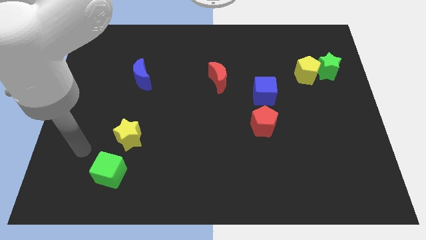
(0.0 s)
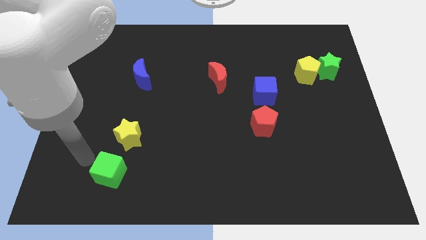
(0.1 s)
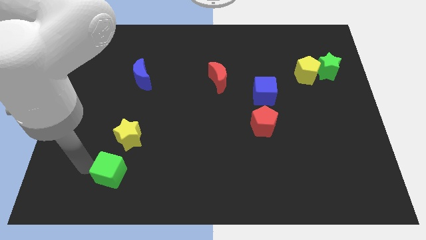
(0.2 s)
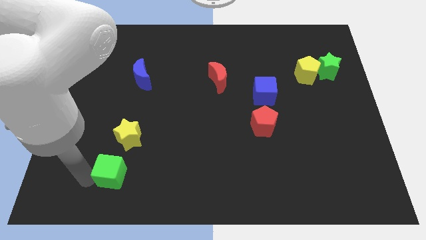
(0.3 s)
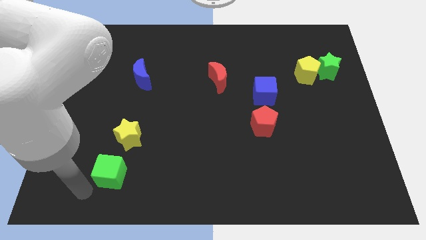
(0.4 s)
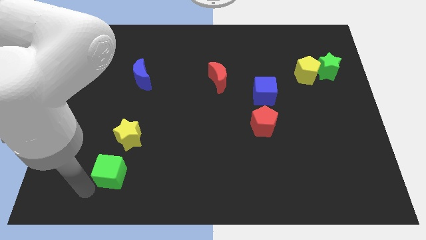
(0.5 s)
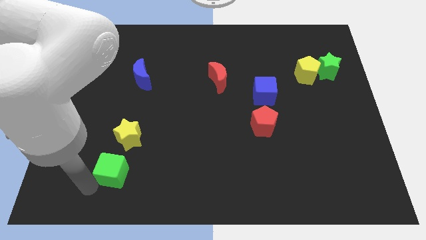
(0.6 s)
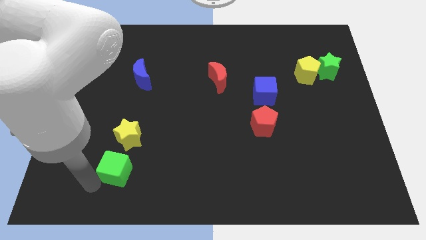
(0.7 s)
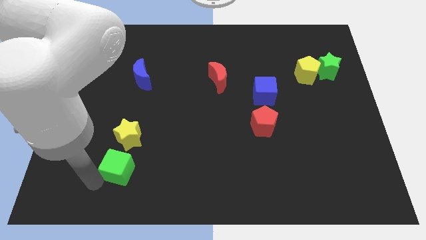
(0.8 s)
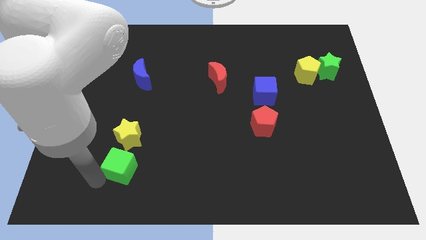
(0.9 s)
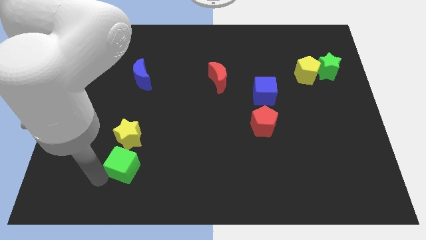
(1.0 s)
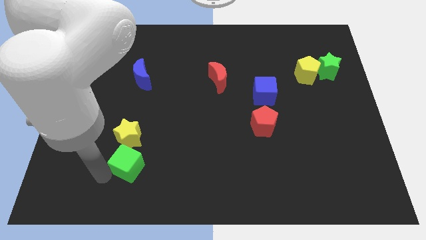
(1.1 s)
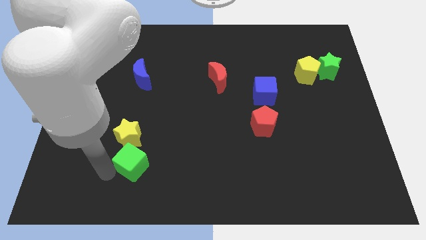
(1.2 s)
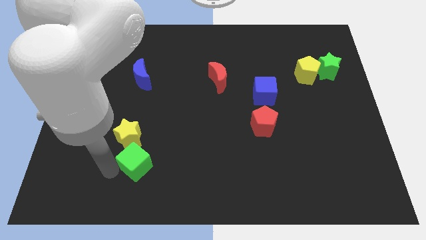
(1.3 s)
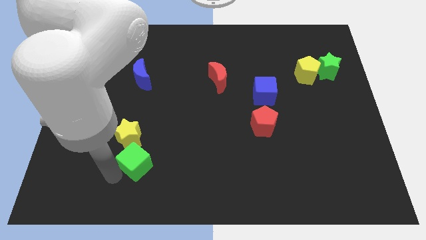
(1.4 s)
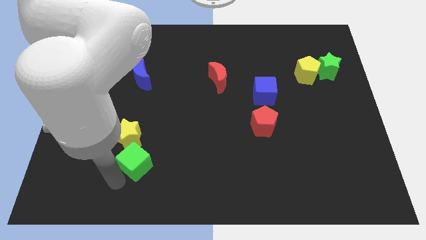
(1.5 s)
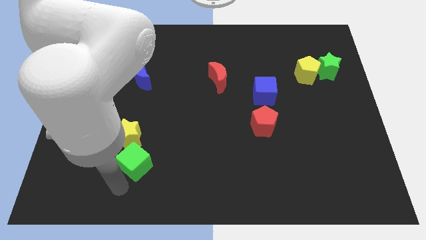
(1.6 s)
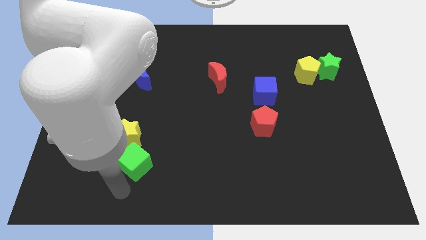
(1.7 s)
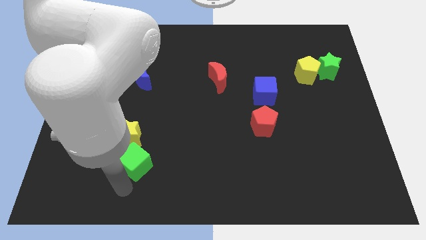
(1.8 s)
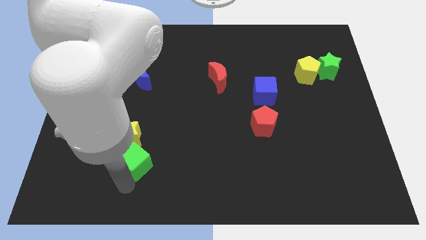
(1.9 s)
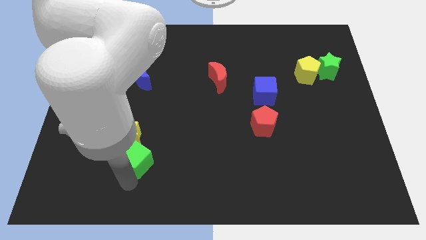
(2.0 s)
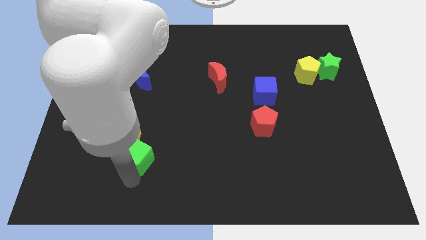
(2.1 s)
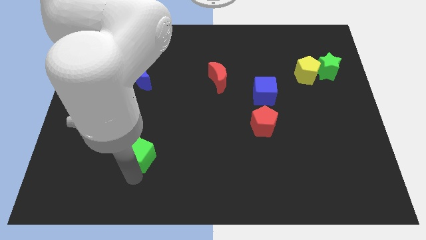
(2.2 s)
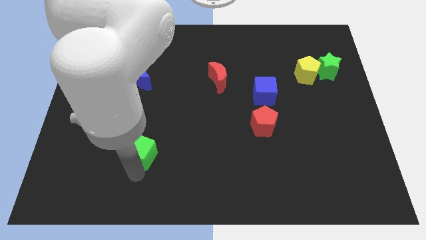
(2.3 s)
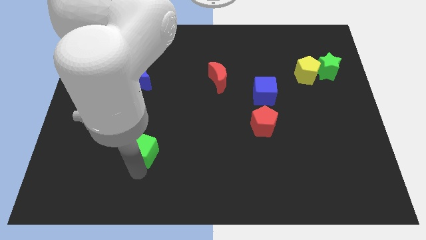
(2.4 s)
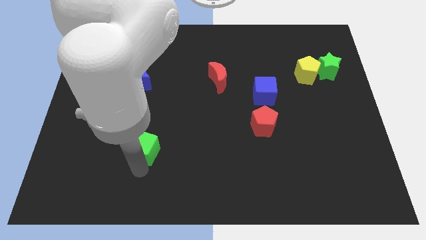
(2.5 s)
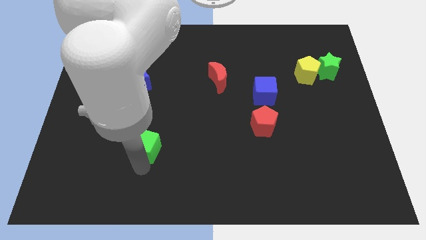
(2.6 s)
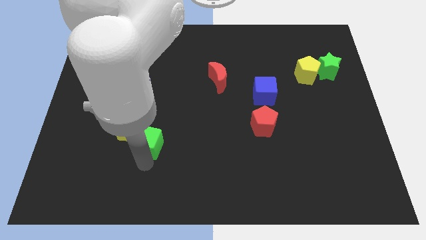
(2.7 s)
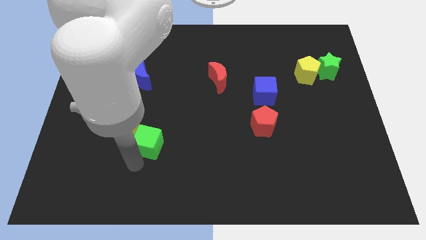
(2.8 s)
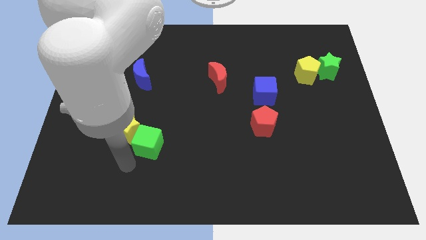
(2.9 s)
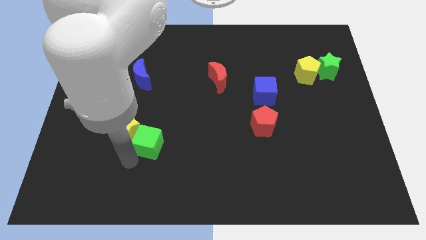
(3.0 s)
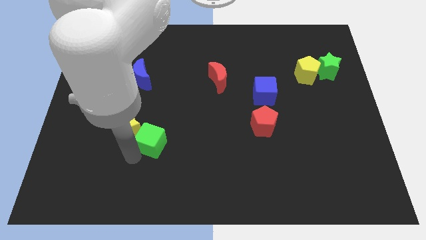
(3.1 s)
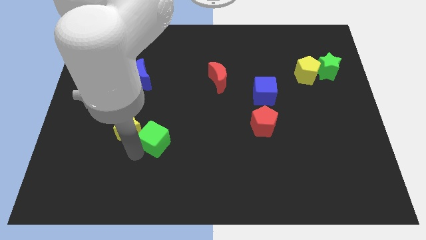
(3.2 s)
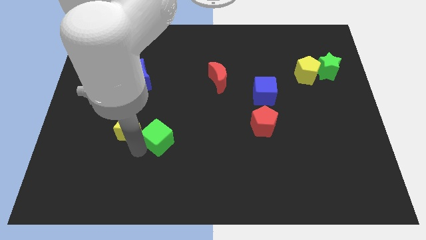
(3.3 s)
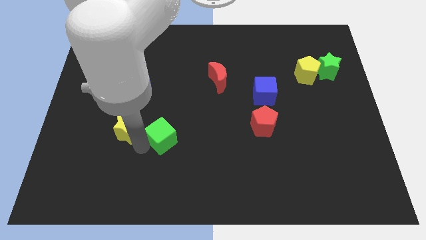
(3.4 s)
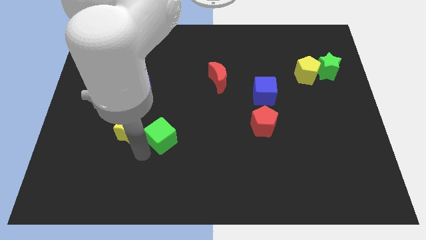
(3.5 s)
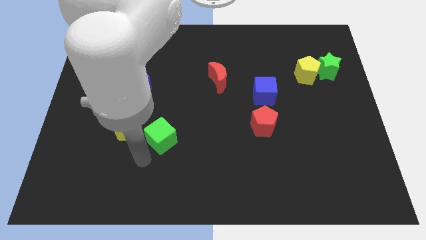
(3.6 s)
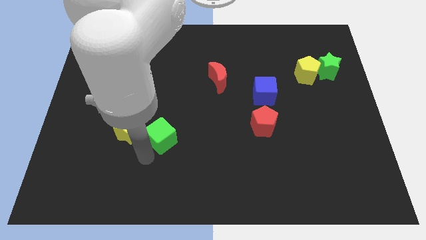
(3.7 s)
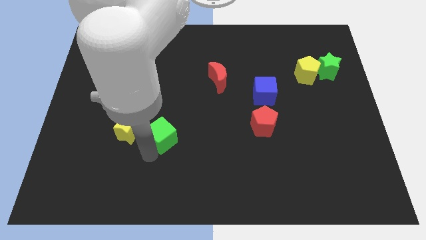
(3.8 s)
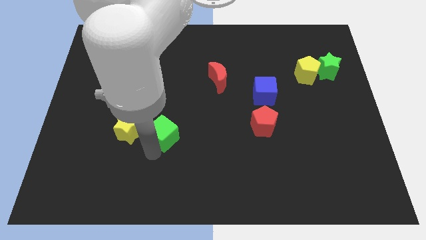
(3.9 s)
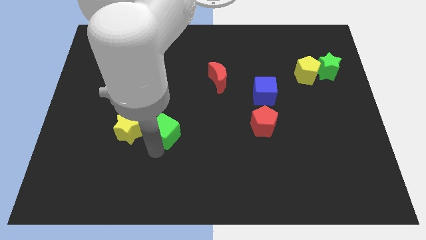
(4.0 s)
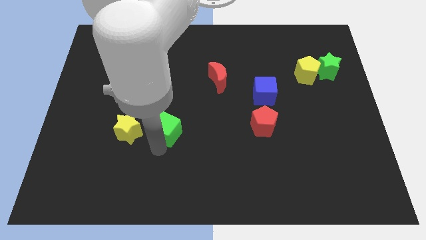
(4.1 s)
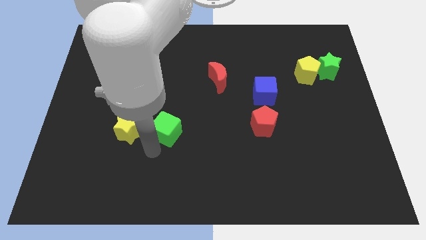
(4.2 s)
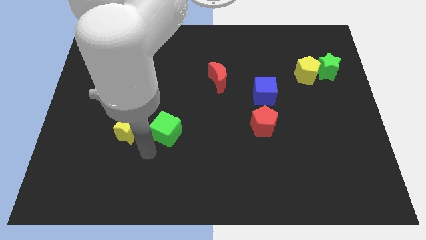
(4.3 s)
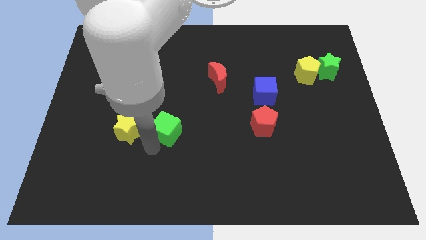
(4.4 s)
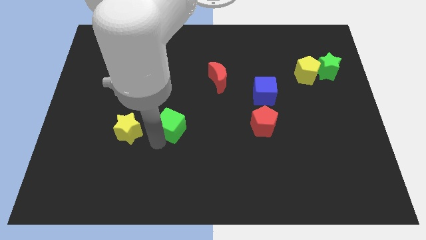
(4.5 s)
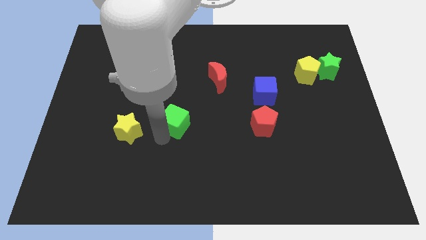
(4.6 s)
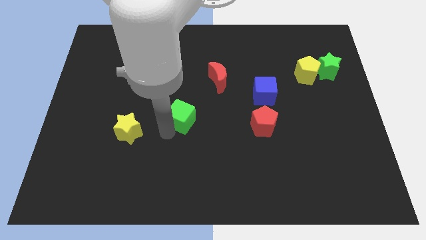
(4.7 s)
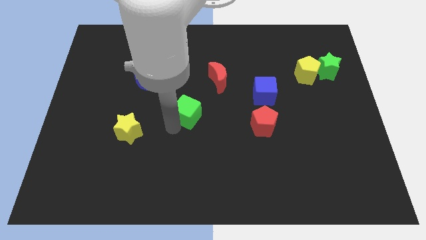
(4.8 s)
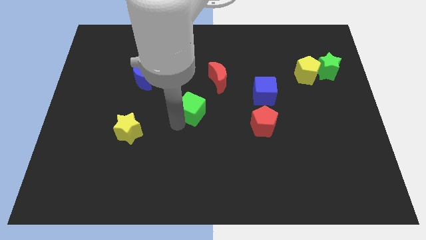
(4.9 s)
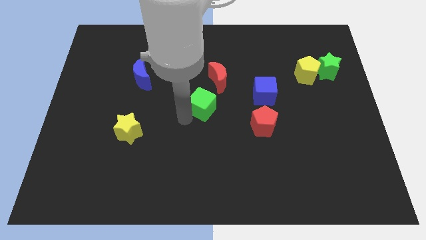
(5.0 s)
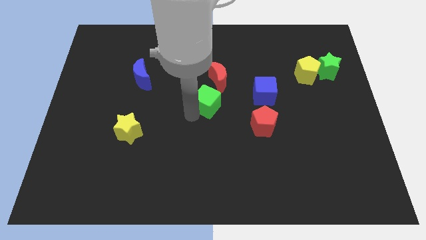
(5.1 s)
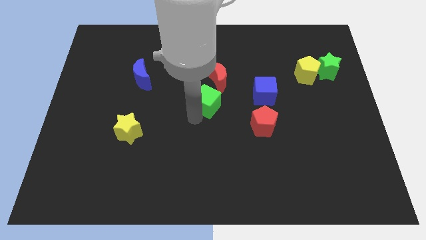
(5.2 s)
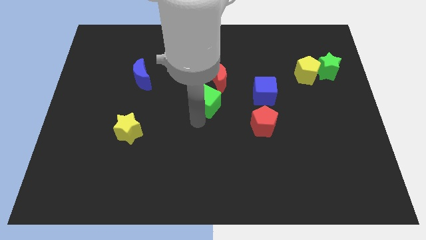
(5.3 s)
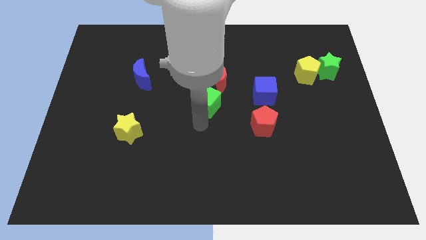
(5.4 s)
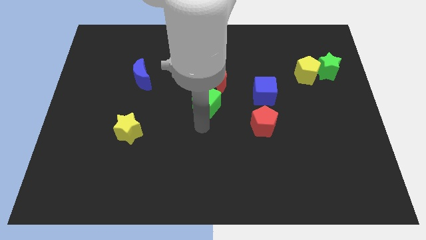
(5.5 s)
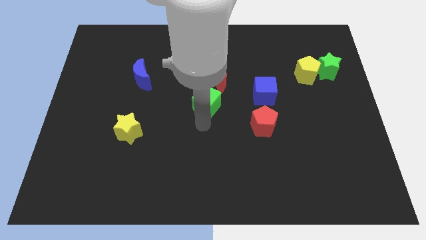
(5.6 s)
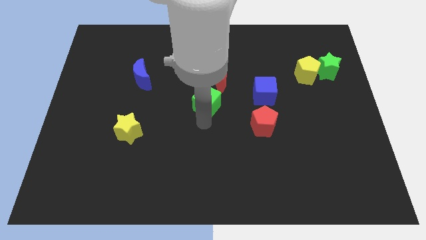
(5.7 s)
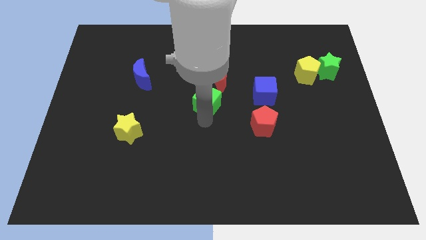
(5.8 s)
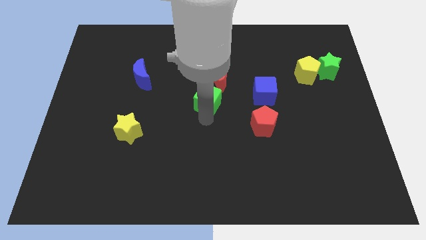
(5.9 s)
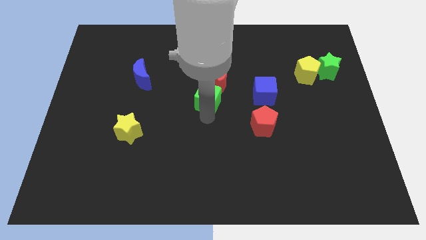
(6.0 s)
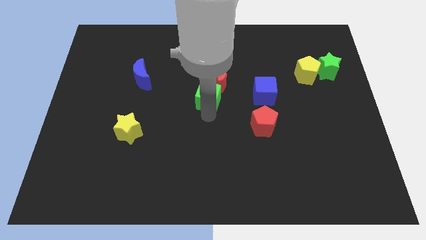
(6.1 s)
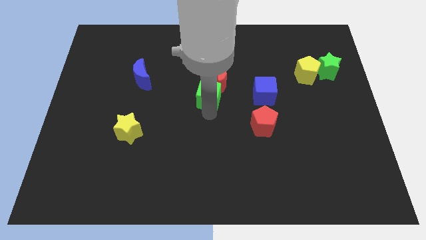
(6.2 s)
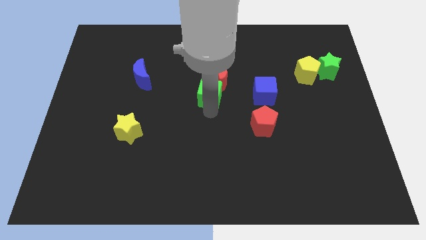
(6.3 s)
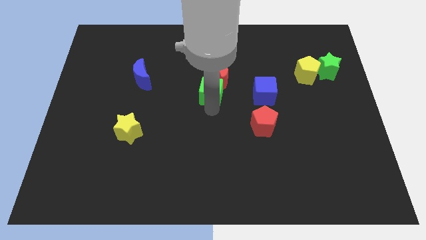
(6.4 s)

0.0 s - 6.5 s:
slide the green cube close to the red moon

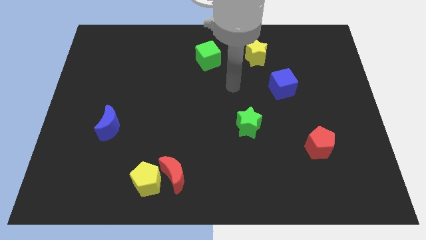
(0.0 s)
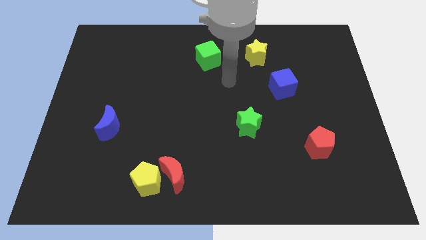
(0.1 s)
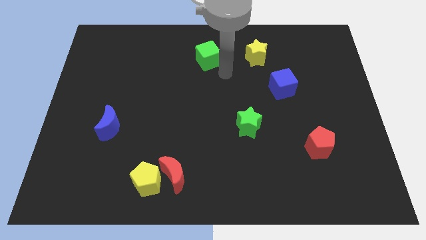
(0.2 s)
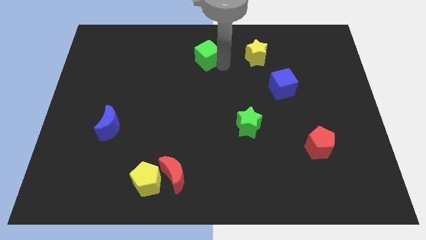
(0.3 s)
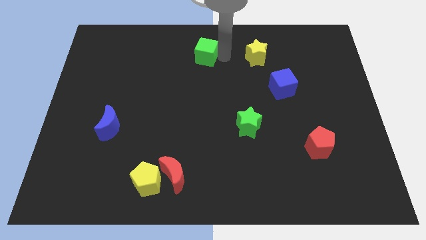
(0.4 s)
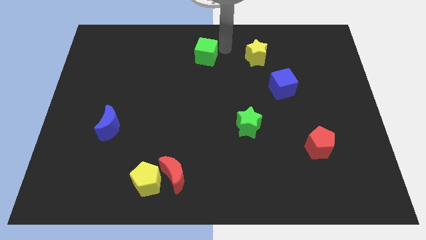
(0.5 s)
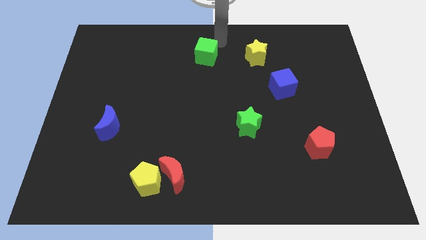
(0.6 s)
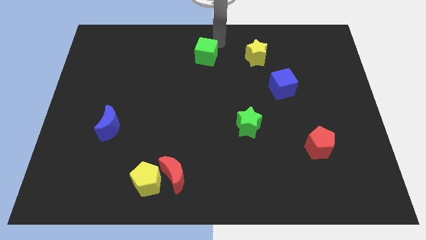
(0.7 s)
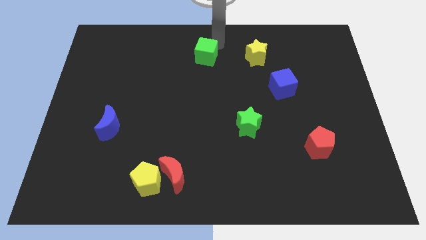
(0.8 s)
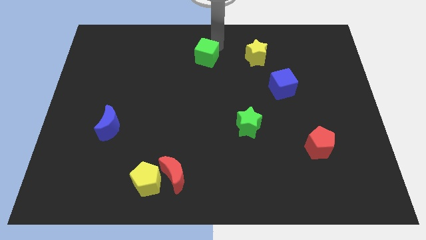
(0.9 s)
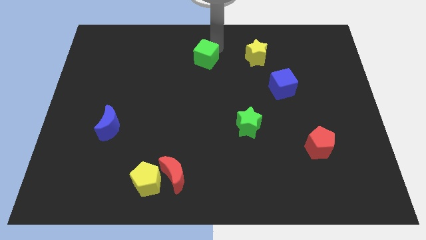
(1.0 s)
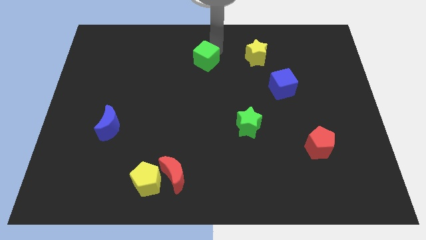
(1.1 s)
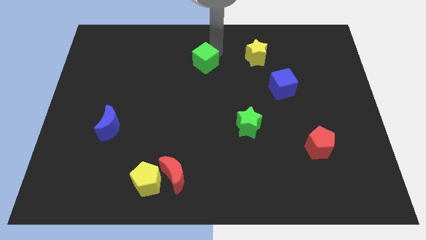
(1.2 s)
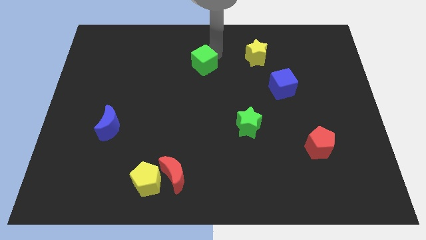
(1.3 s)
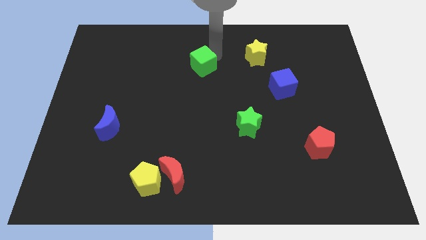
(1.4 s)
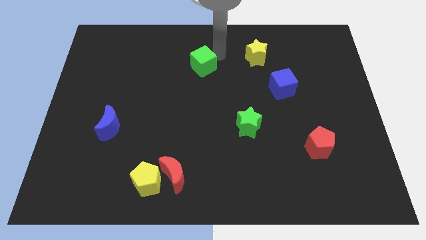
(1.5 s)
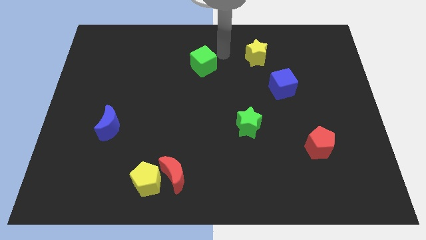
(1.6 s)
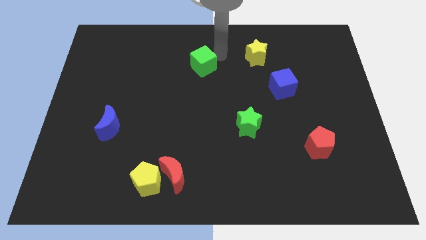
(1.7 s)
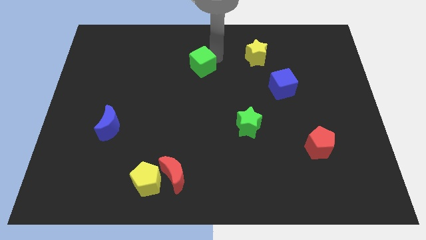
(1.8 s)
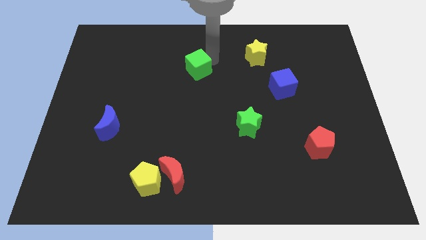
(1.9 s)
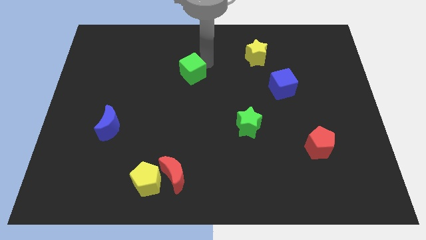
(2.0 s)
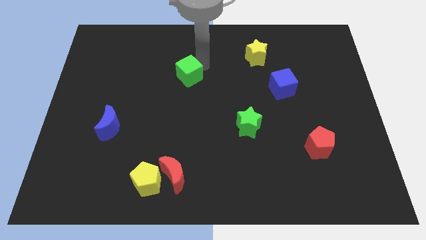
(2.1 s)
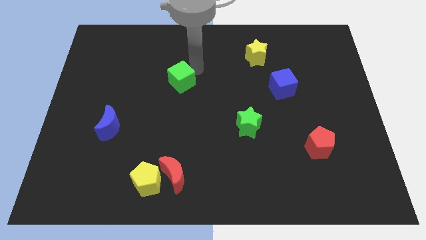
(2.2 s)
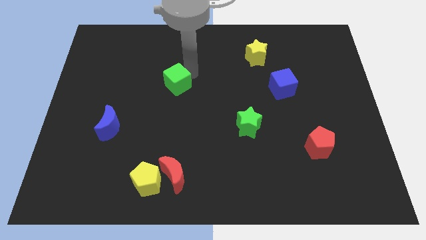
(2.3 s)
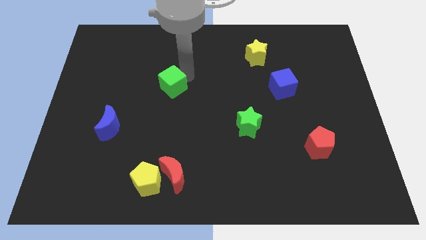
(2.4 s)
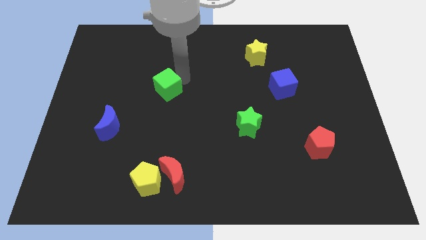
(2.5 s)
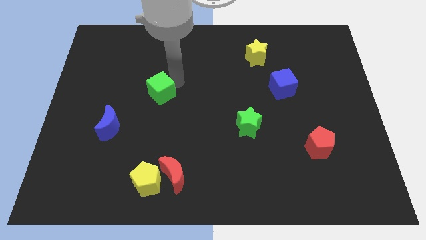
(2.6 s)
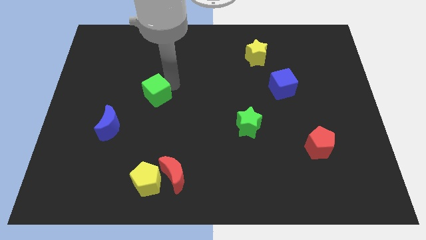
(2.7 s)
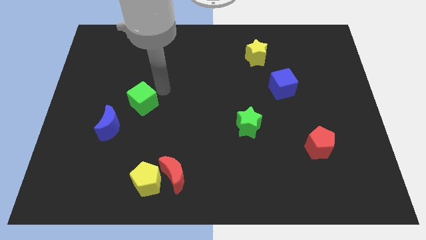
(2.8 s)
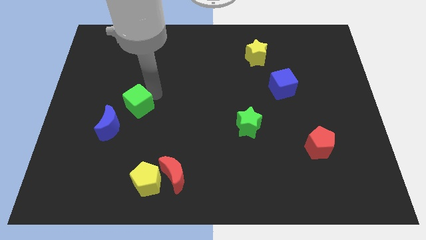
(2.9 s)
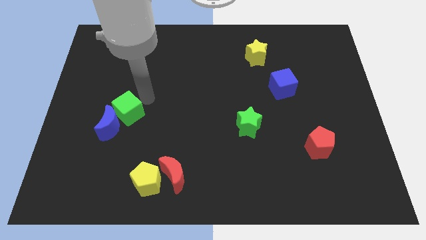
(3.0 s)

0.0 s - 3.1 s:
push the green cube towards the blue moon
